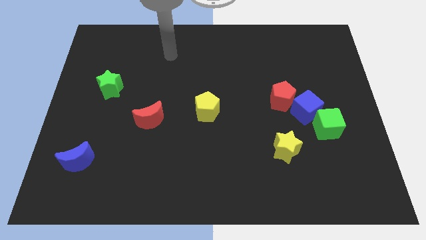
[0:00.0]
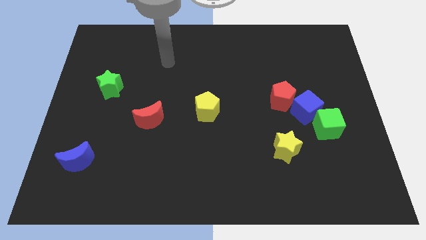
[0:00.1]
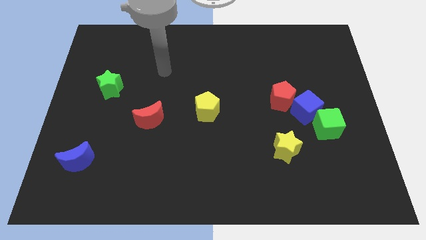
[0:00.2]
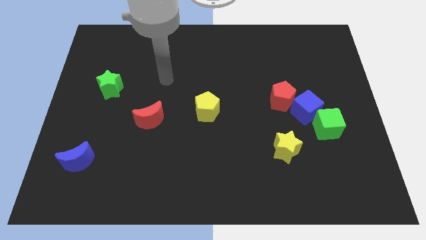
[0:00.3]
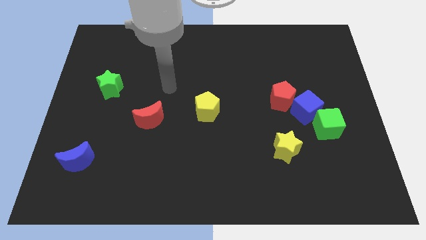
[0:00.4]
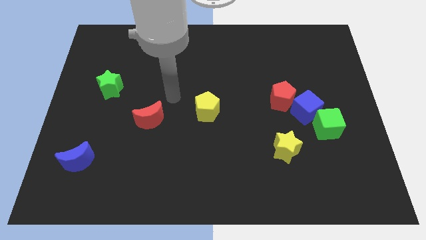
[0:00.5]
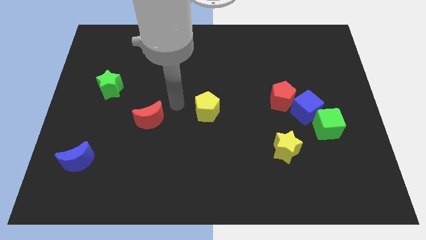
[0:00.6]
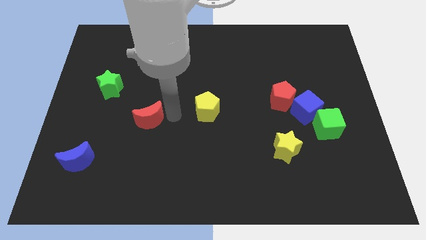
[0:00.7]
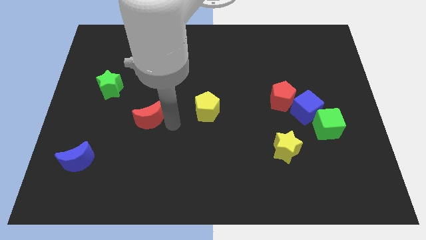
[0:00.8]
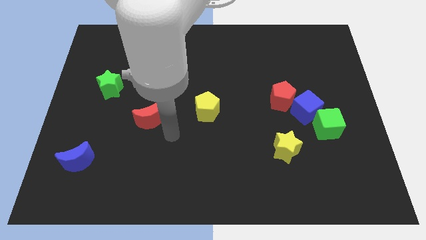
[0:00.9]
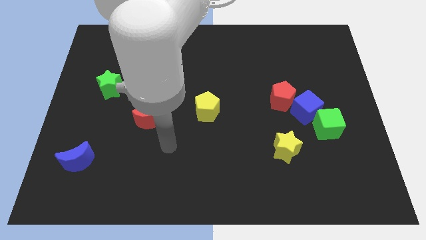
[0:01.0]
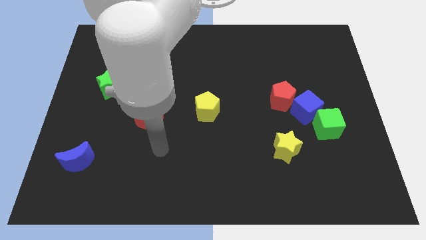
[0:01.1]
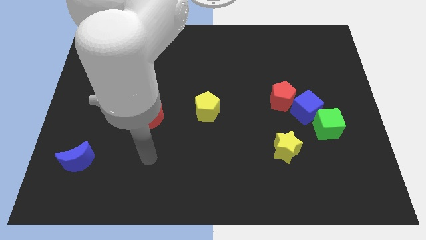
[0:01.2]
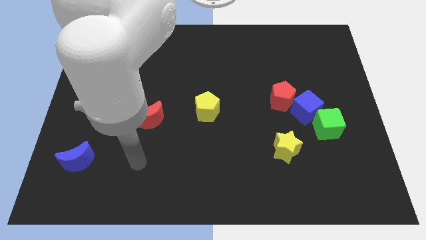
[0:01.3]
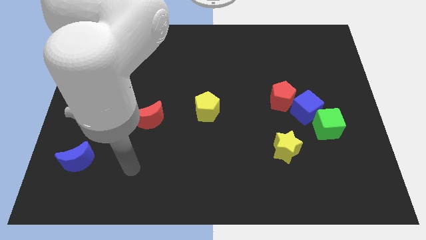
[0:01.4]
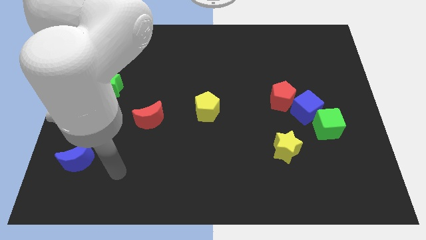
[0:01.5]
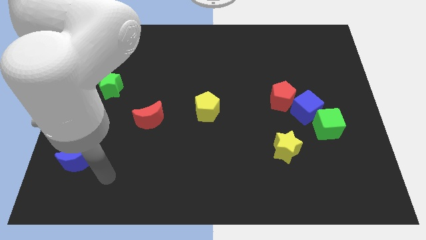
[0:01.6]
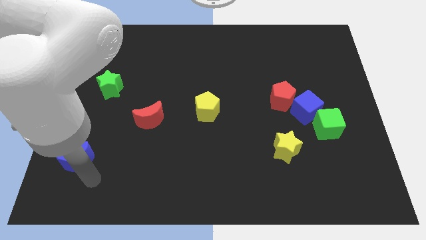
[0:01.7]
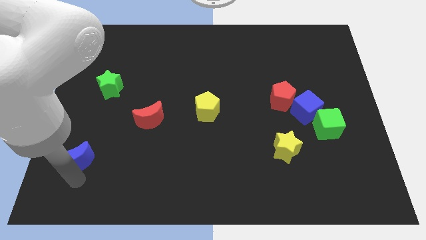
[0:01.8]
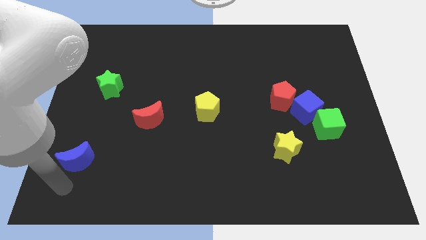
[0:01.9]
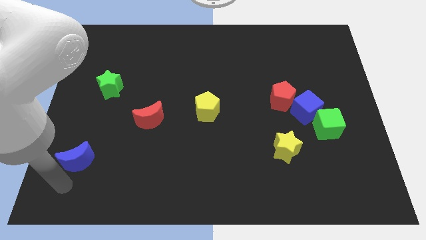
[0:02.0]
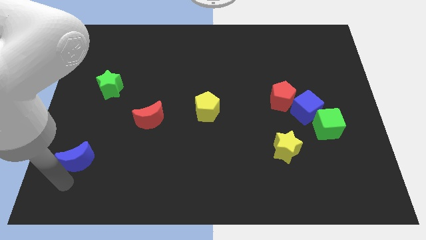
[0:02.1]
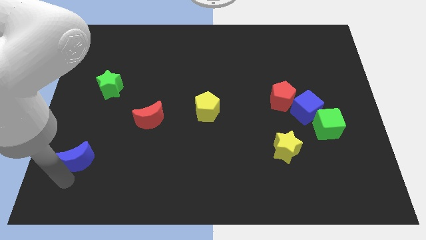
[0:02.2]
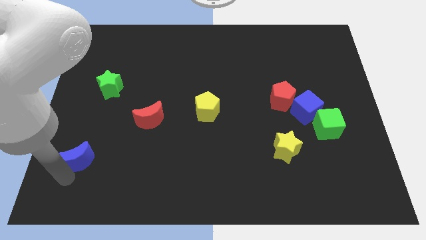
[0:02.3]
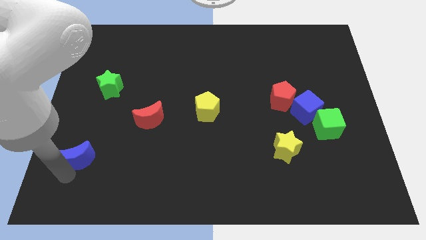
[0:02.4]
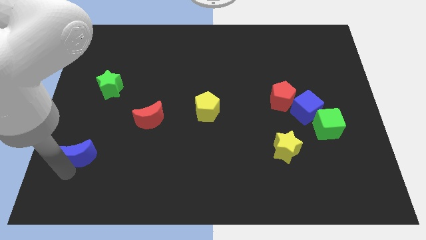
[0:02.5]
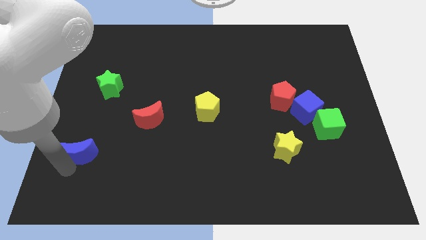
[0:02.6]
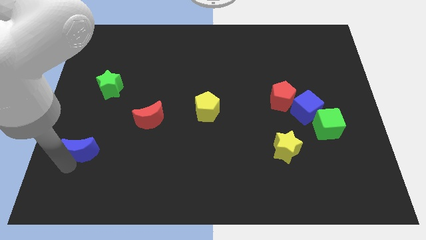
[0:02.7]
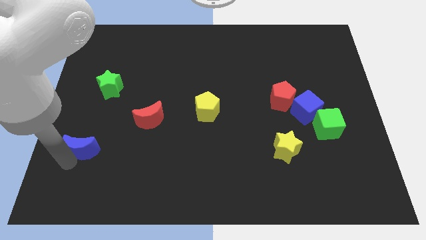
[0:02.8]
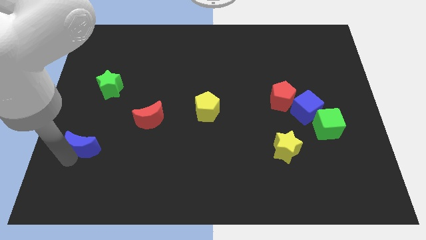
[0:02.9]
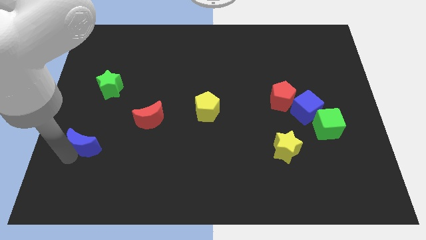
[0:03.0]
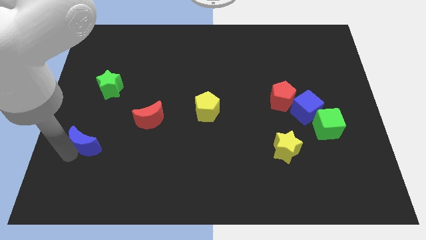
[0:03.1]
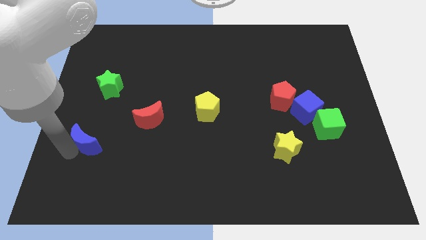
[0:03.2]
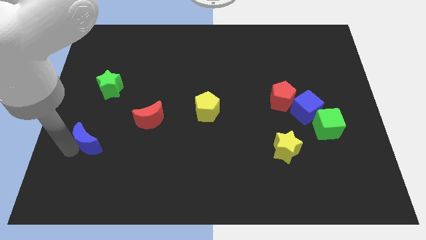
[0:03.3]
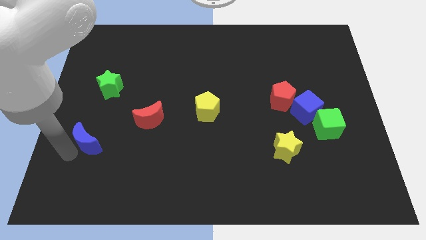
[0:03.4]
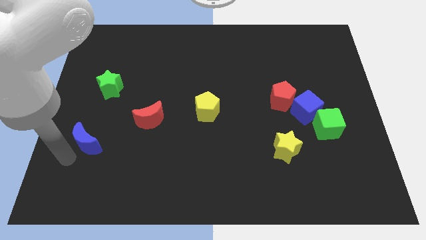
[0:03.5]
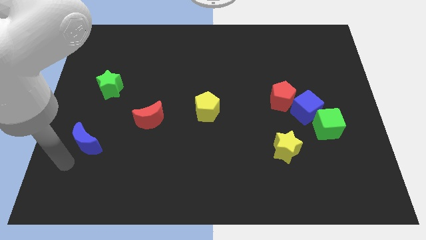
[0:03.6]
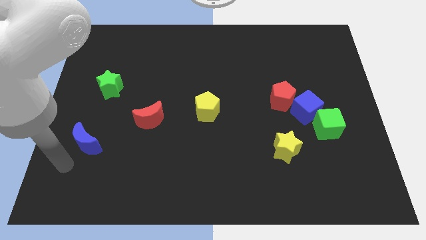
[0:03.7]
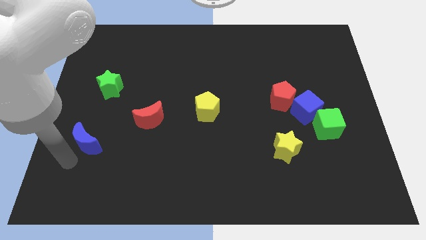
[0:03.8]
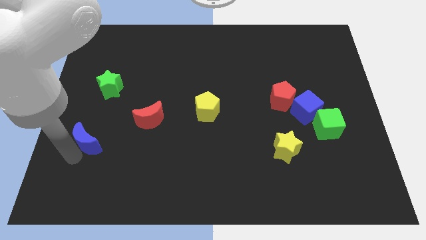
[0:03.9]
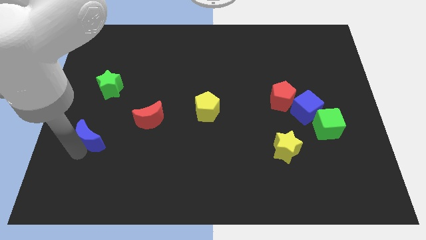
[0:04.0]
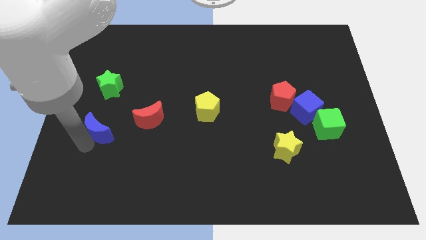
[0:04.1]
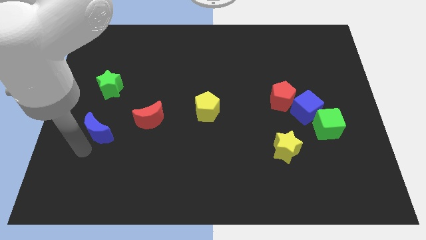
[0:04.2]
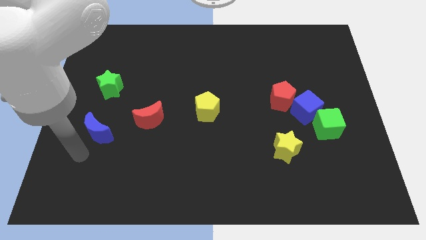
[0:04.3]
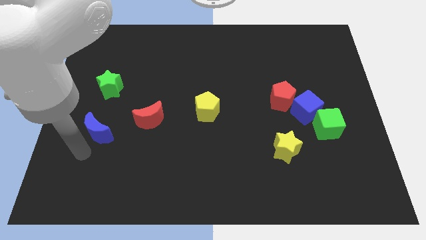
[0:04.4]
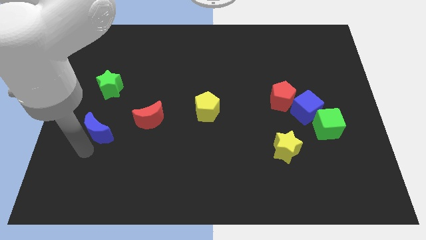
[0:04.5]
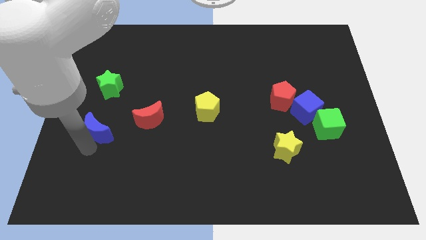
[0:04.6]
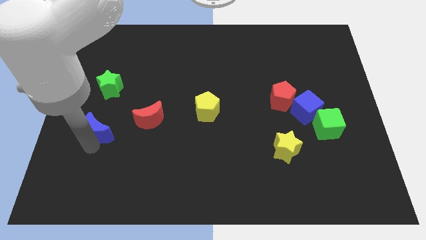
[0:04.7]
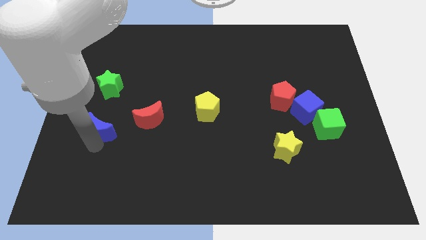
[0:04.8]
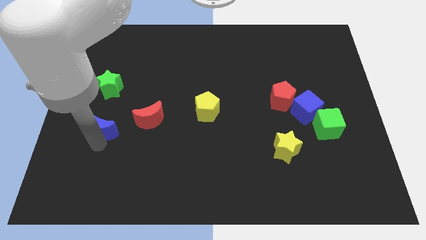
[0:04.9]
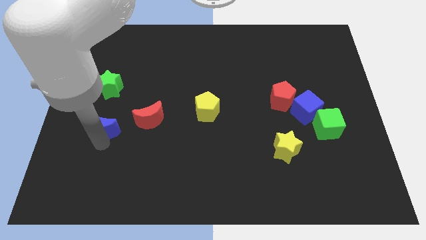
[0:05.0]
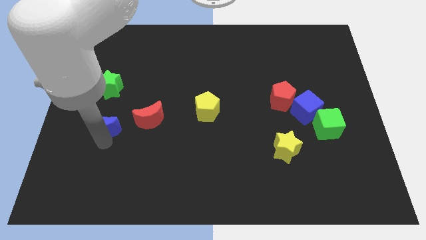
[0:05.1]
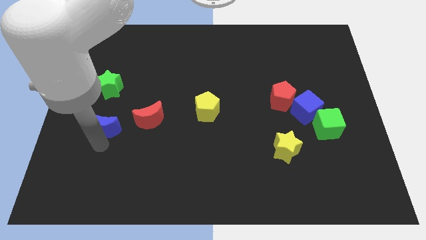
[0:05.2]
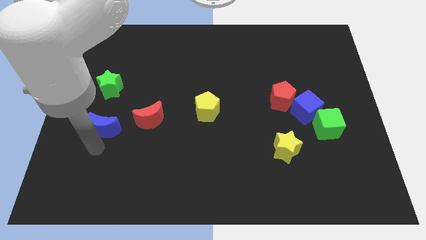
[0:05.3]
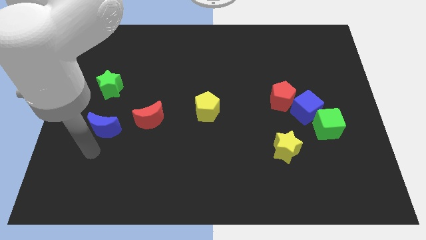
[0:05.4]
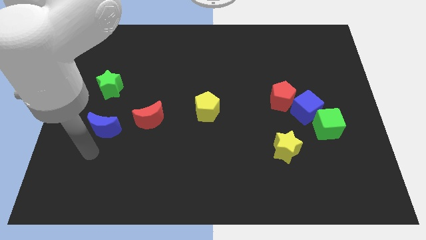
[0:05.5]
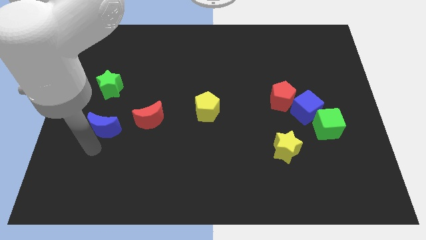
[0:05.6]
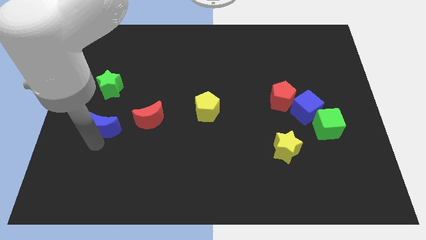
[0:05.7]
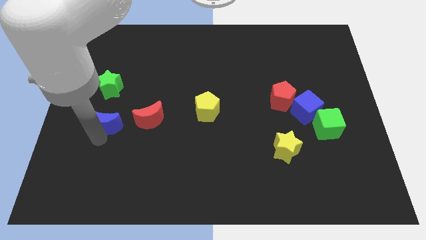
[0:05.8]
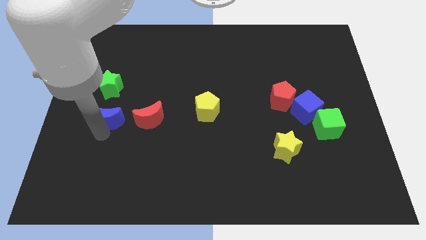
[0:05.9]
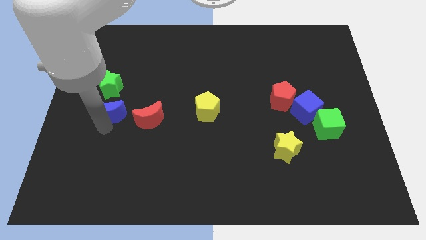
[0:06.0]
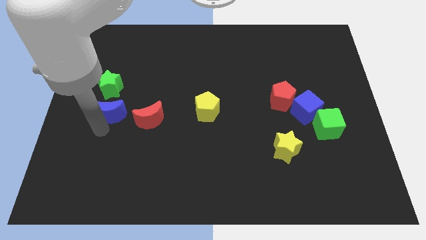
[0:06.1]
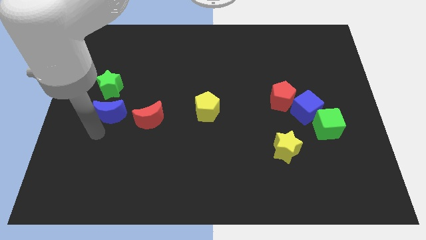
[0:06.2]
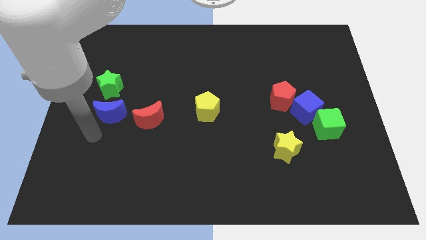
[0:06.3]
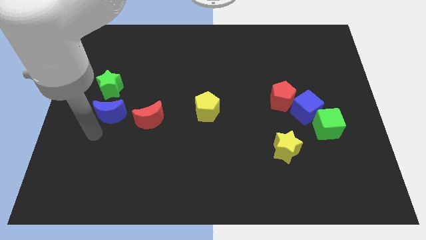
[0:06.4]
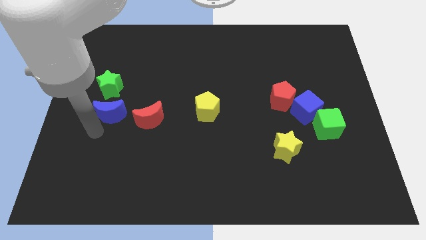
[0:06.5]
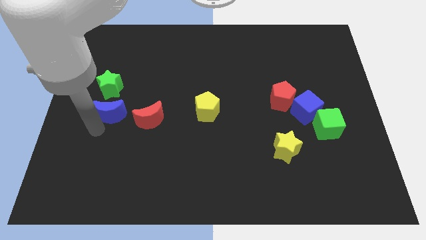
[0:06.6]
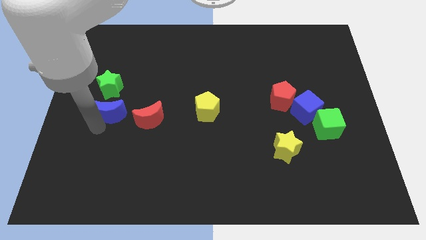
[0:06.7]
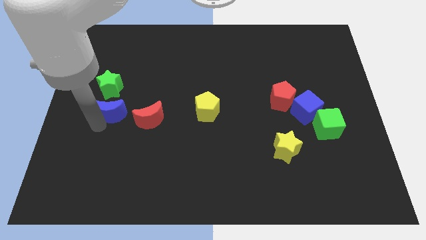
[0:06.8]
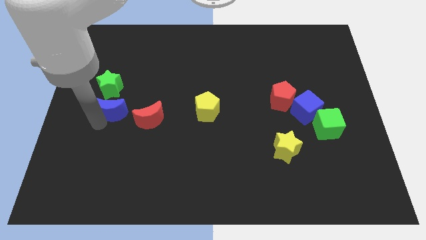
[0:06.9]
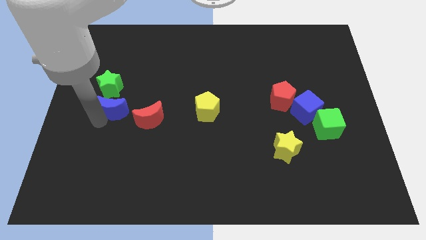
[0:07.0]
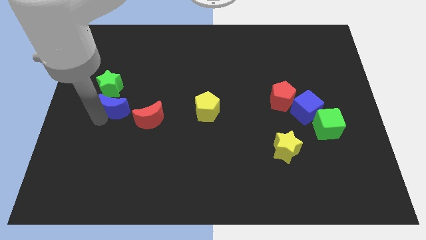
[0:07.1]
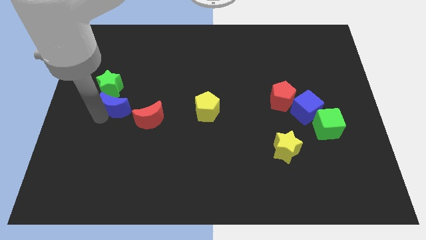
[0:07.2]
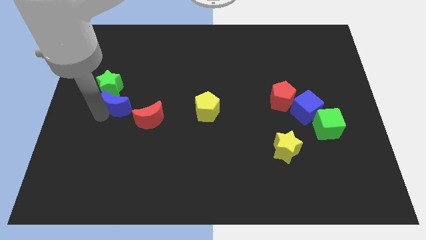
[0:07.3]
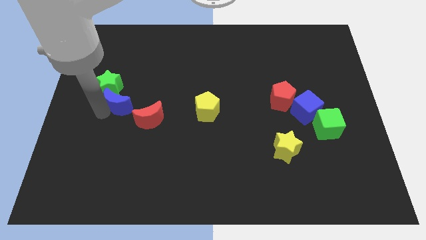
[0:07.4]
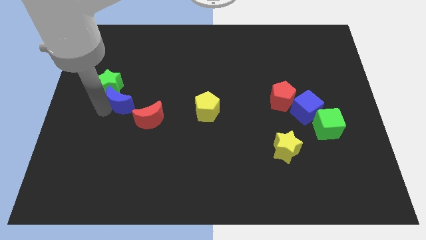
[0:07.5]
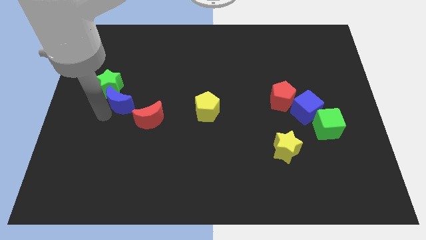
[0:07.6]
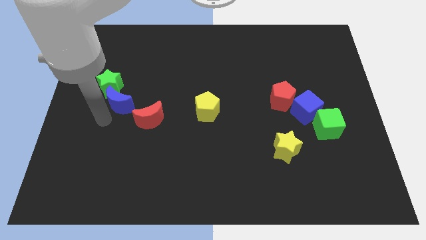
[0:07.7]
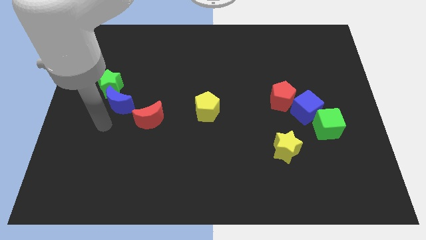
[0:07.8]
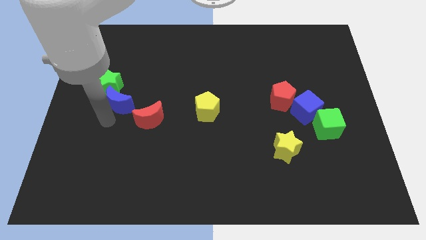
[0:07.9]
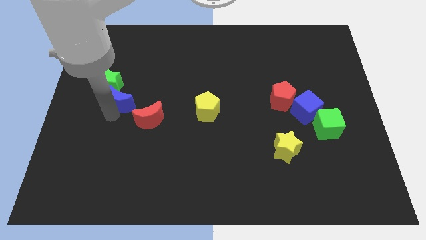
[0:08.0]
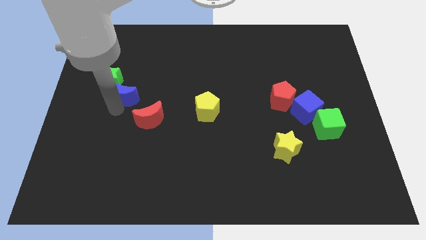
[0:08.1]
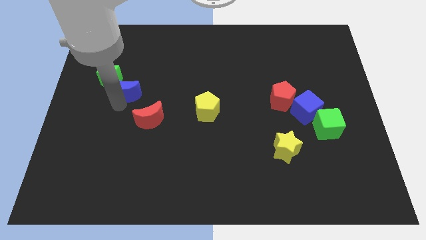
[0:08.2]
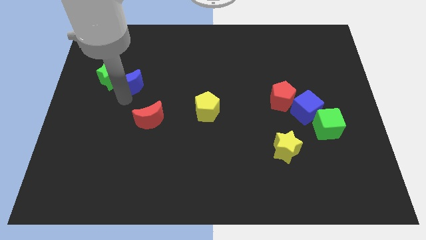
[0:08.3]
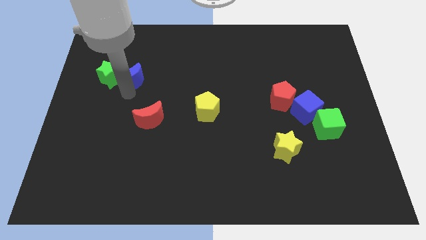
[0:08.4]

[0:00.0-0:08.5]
move the blue moon diagonally up and to the right of the green star
